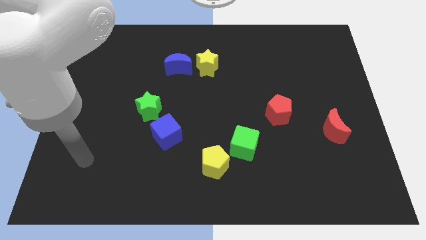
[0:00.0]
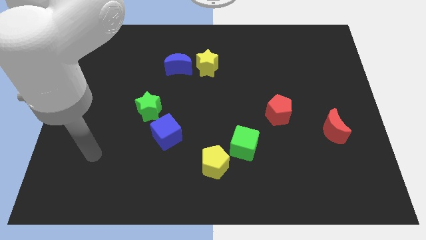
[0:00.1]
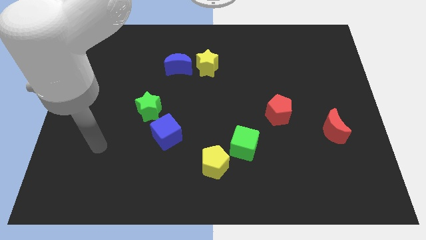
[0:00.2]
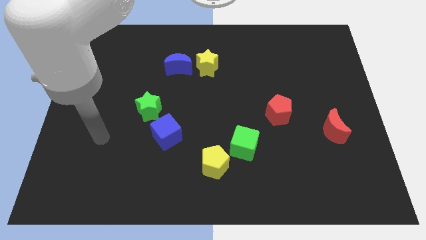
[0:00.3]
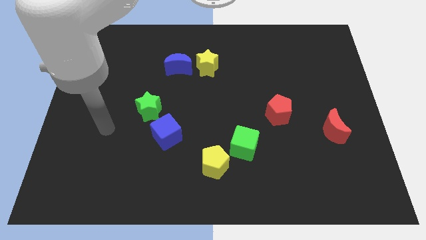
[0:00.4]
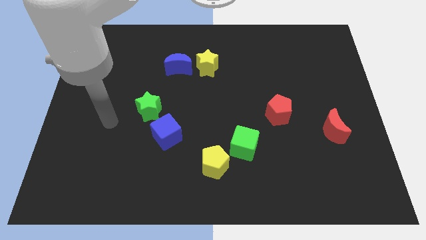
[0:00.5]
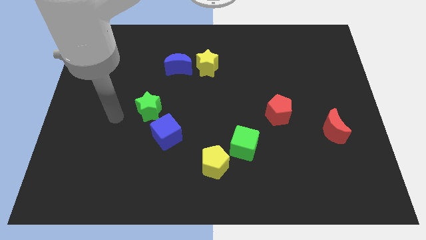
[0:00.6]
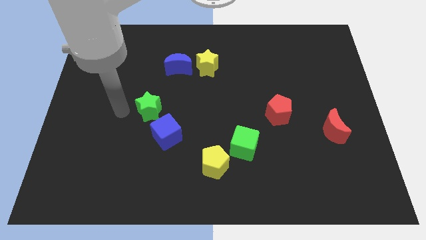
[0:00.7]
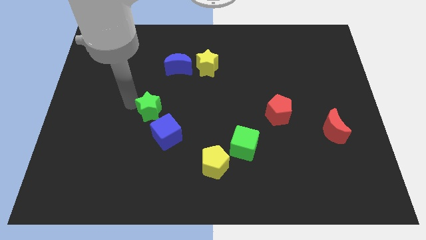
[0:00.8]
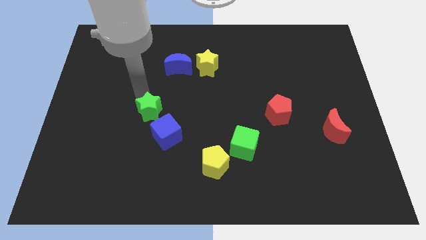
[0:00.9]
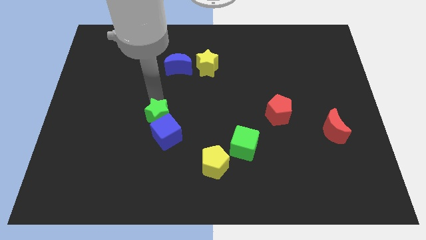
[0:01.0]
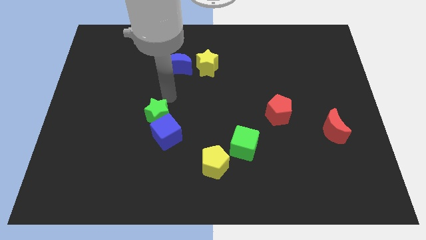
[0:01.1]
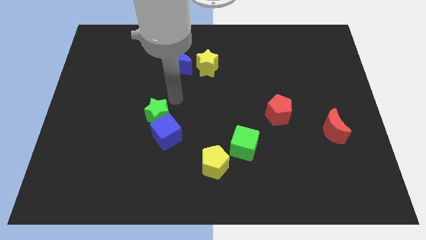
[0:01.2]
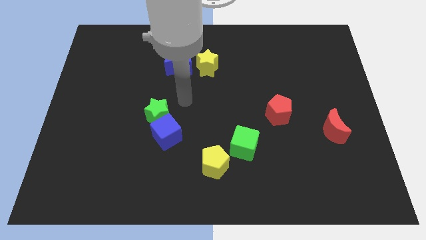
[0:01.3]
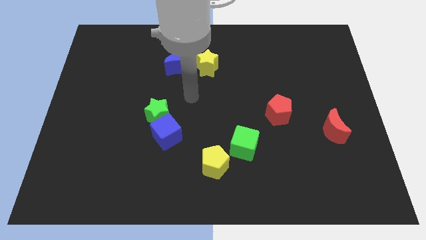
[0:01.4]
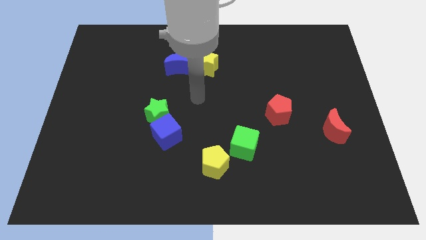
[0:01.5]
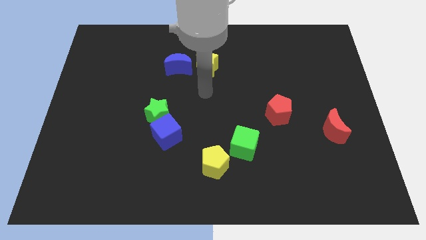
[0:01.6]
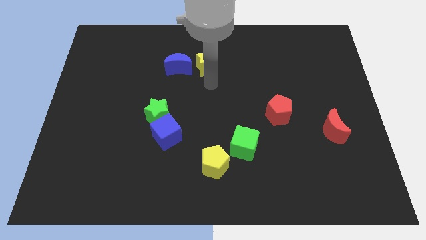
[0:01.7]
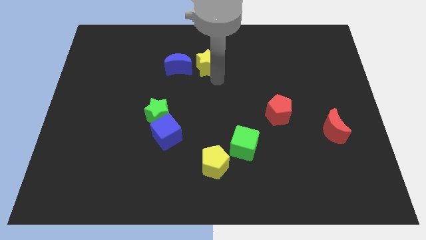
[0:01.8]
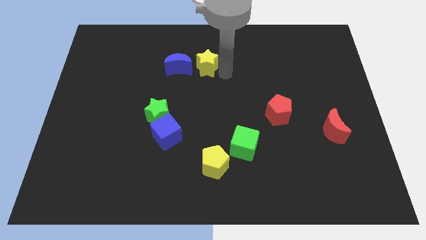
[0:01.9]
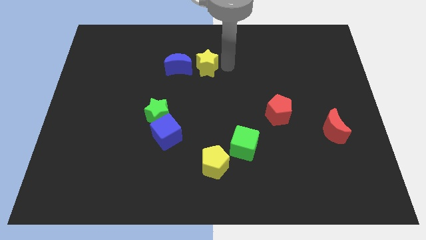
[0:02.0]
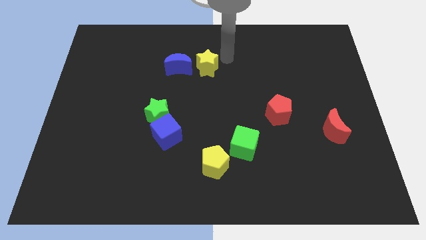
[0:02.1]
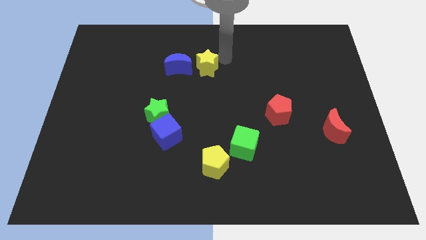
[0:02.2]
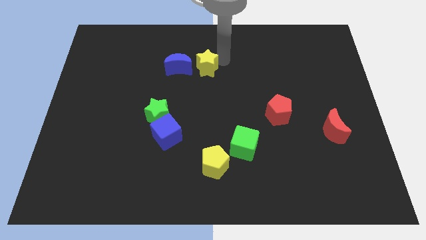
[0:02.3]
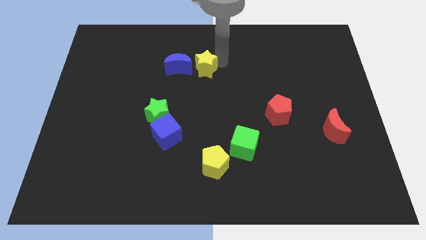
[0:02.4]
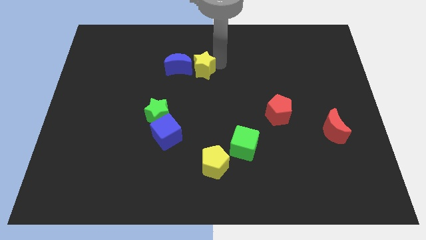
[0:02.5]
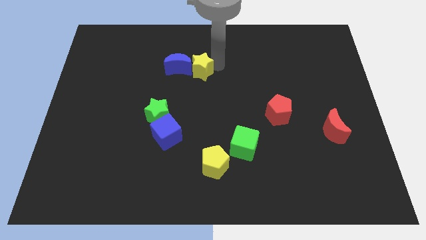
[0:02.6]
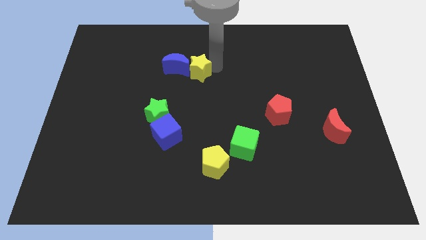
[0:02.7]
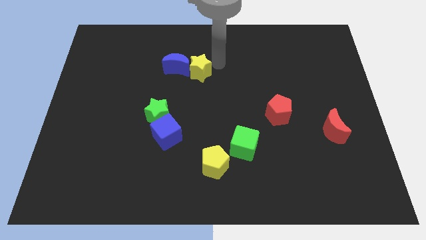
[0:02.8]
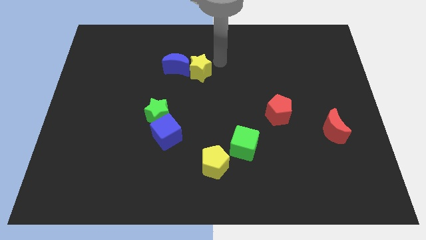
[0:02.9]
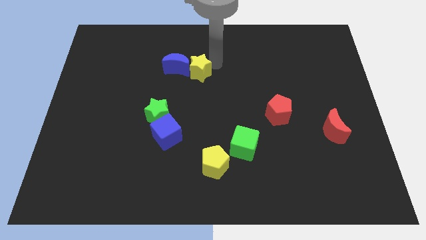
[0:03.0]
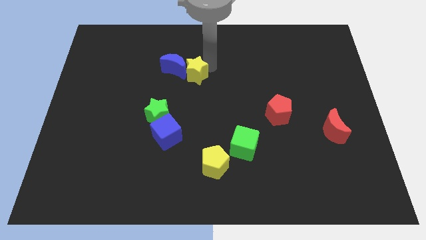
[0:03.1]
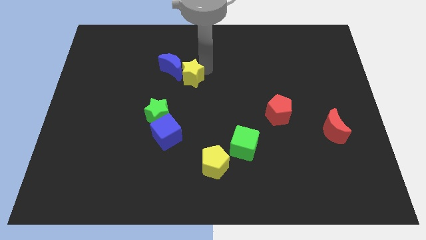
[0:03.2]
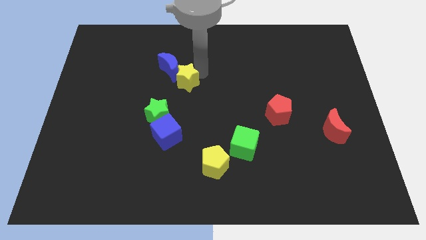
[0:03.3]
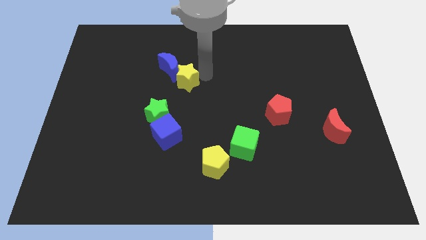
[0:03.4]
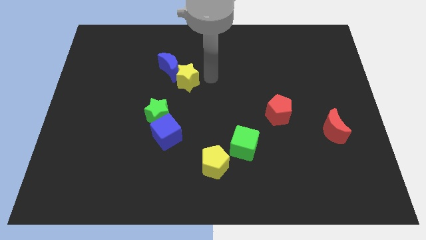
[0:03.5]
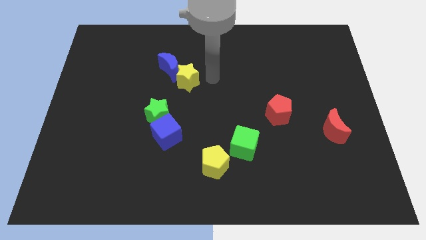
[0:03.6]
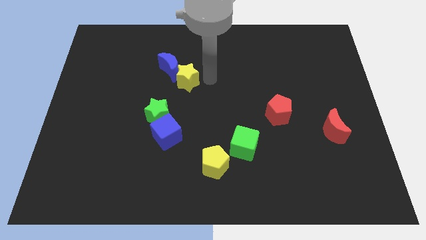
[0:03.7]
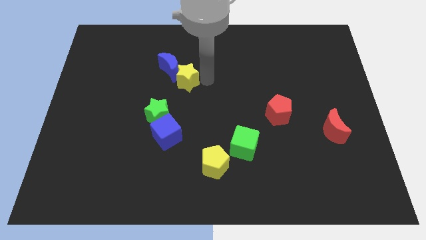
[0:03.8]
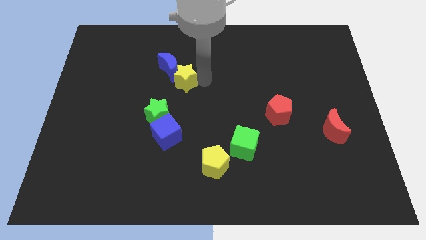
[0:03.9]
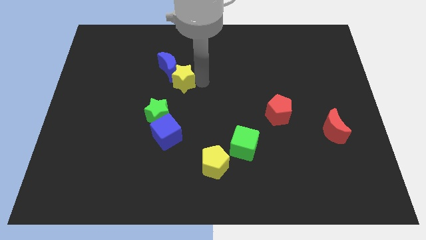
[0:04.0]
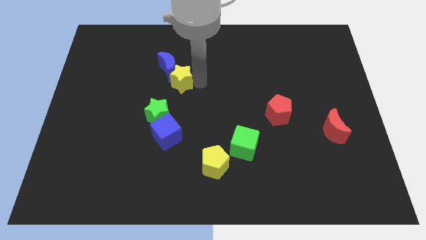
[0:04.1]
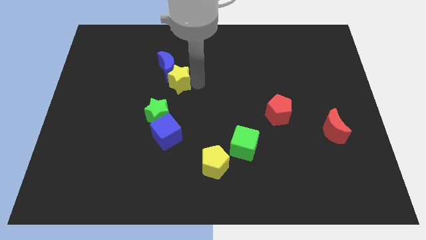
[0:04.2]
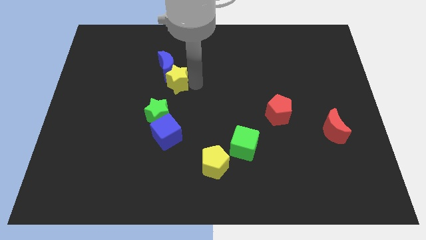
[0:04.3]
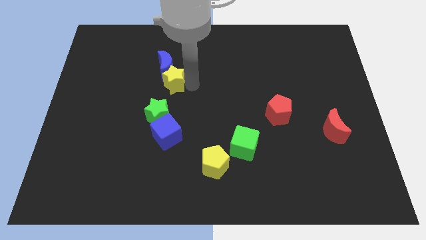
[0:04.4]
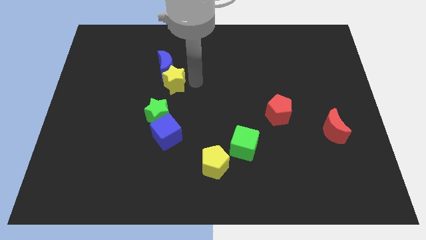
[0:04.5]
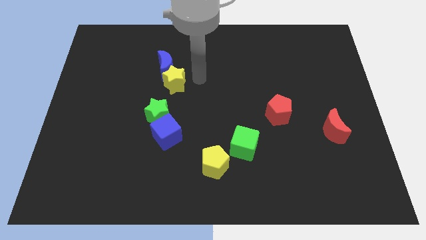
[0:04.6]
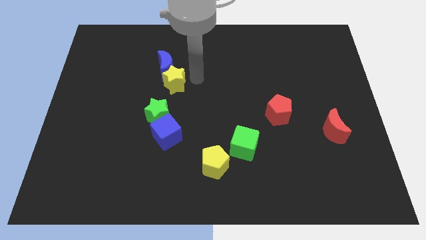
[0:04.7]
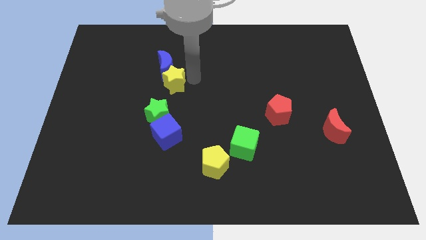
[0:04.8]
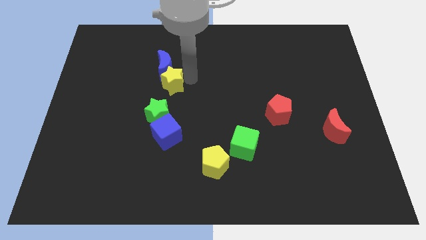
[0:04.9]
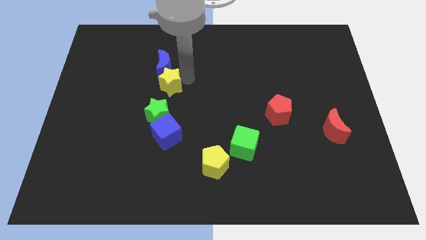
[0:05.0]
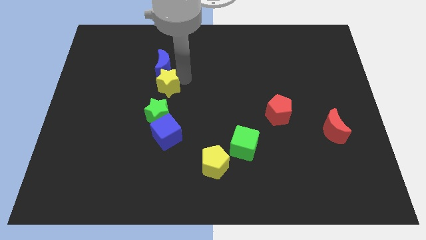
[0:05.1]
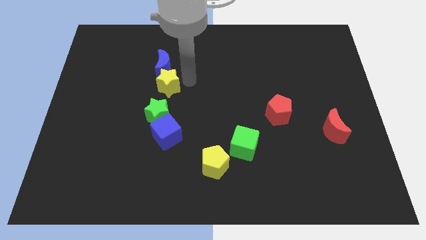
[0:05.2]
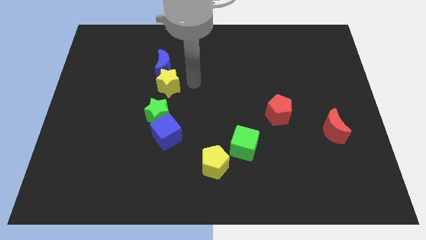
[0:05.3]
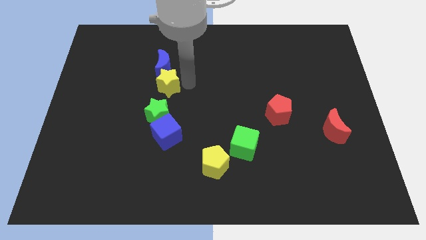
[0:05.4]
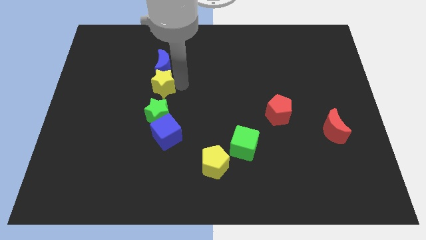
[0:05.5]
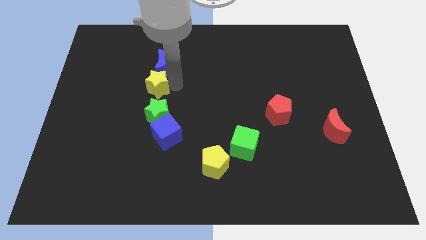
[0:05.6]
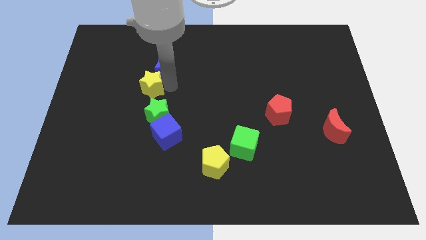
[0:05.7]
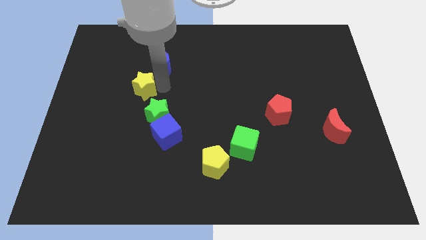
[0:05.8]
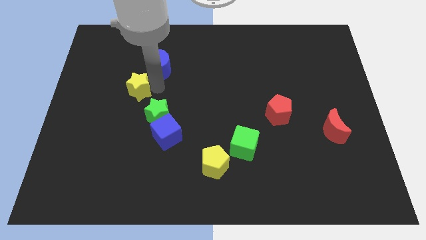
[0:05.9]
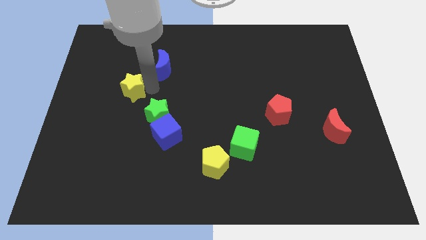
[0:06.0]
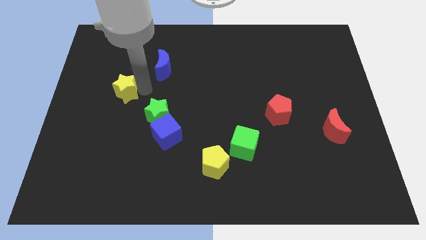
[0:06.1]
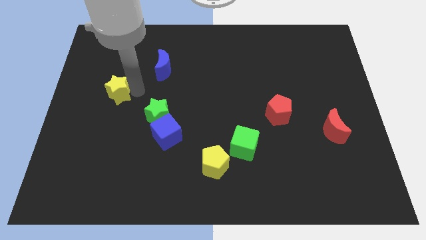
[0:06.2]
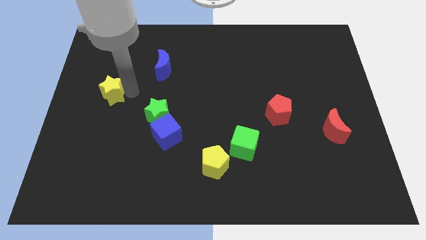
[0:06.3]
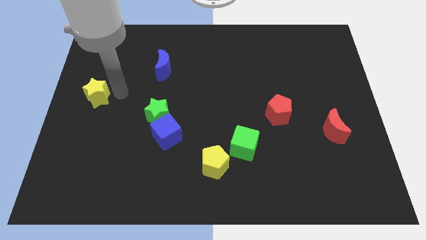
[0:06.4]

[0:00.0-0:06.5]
move the yellow star to the center left
